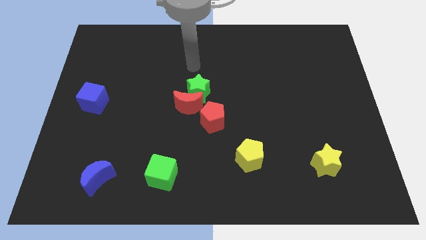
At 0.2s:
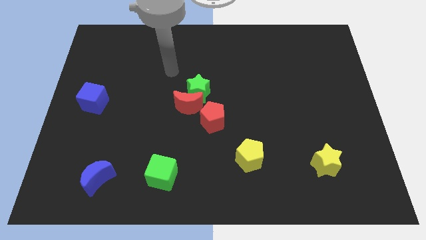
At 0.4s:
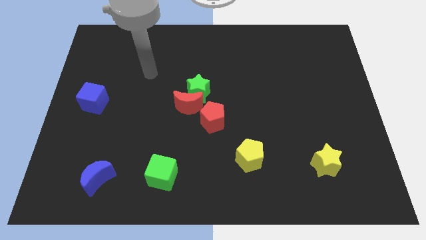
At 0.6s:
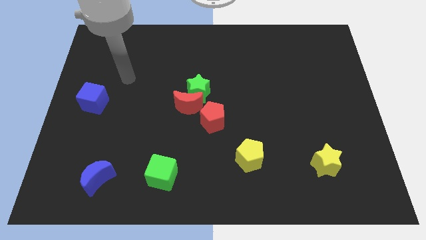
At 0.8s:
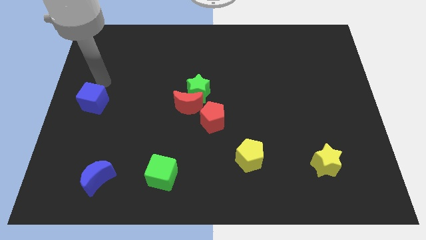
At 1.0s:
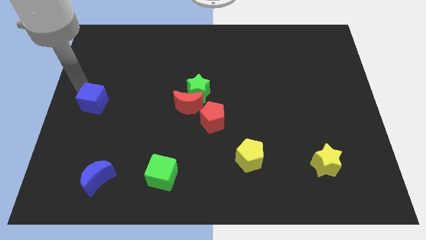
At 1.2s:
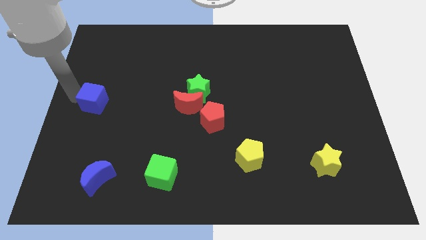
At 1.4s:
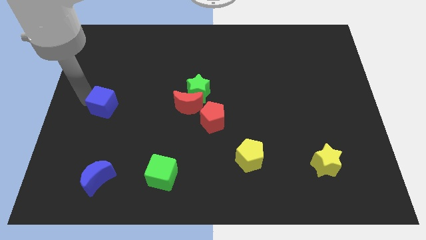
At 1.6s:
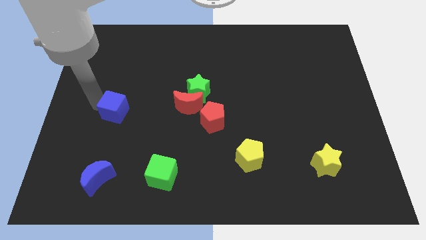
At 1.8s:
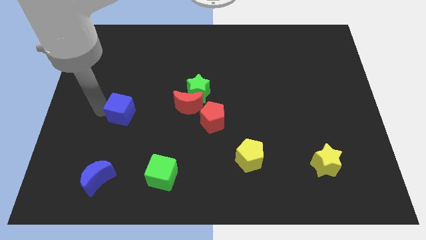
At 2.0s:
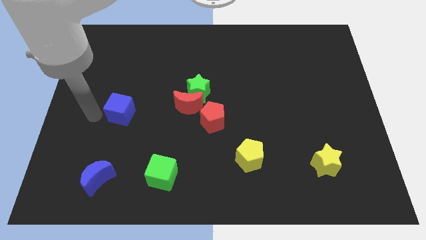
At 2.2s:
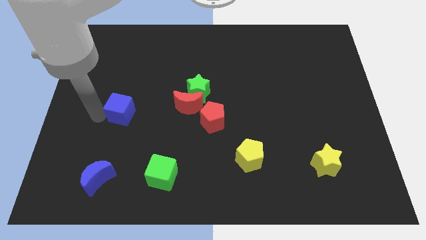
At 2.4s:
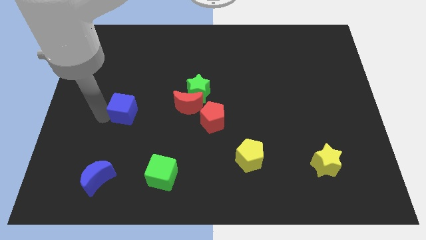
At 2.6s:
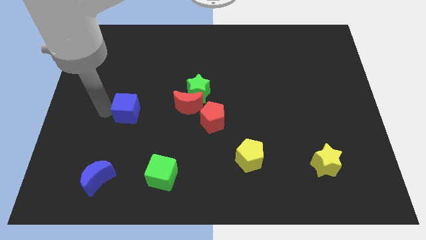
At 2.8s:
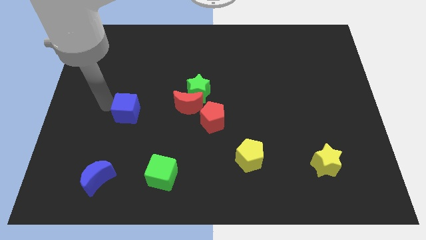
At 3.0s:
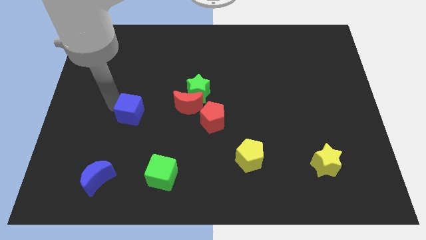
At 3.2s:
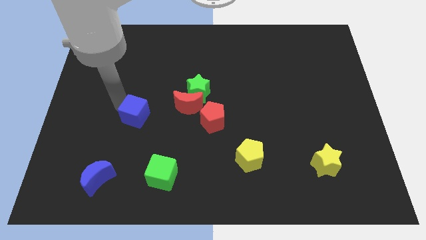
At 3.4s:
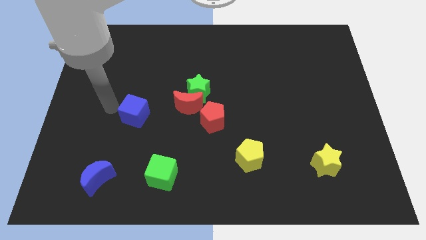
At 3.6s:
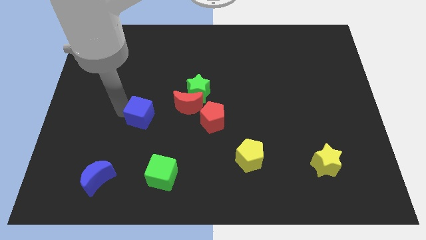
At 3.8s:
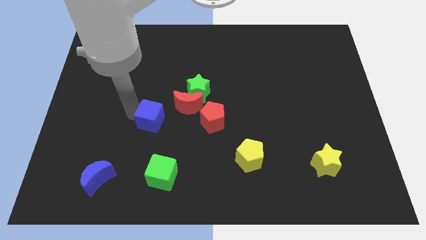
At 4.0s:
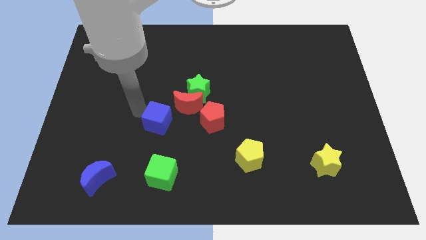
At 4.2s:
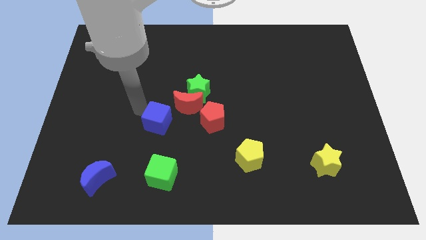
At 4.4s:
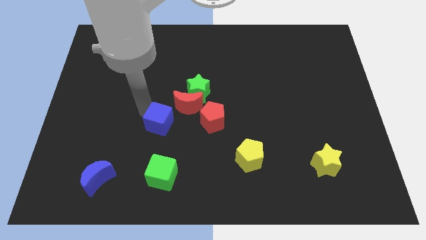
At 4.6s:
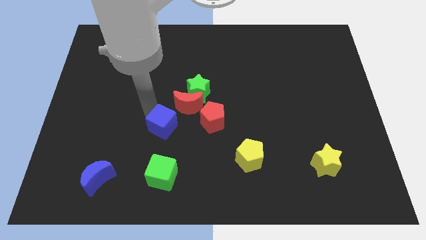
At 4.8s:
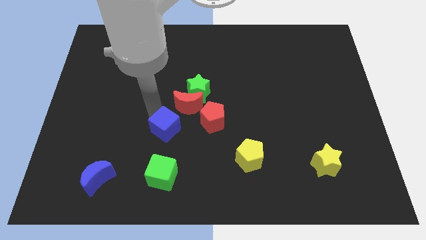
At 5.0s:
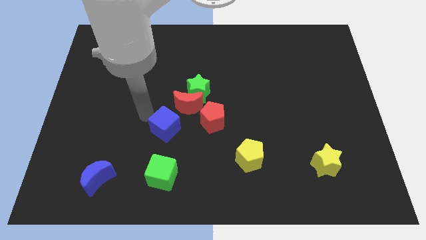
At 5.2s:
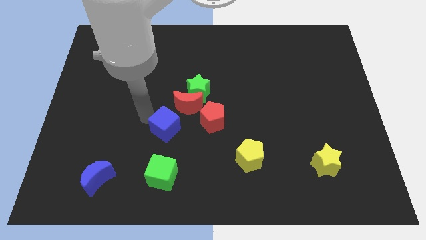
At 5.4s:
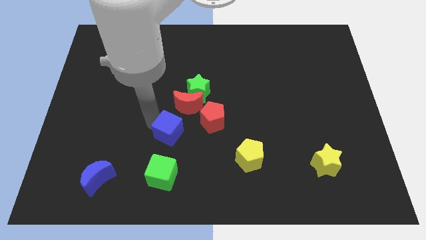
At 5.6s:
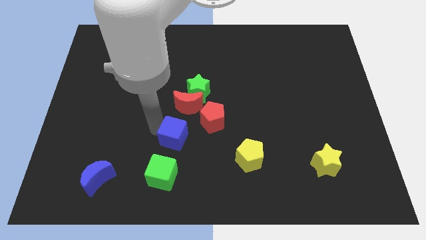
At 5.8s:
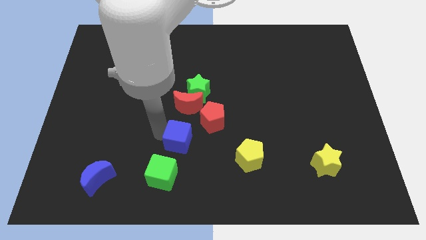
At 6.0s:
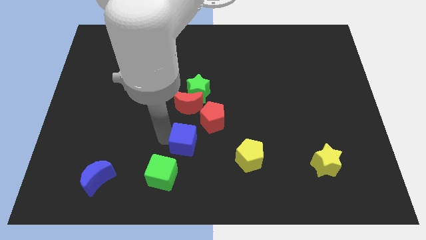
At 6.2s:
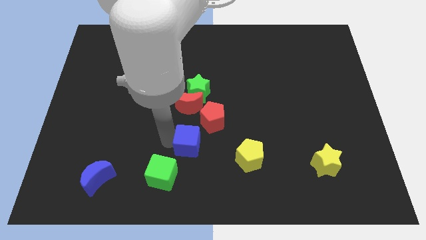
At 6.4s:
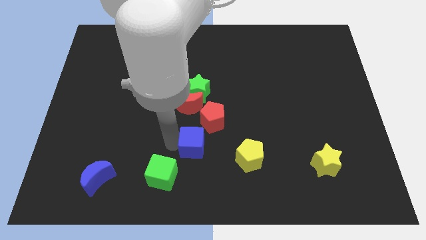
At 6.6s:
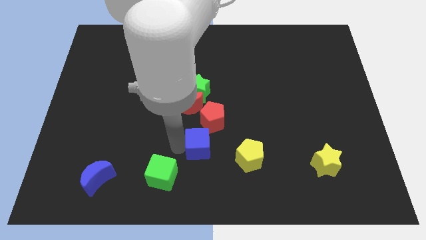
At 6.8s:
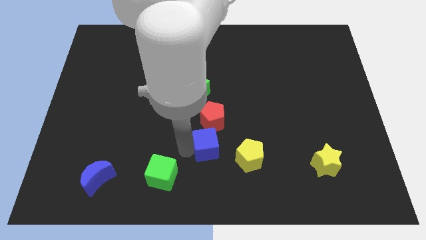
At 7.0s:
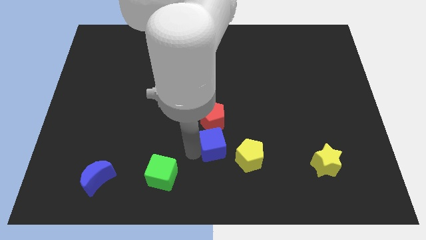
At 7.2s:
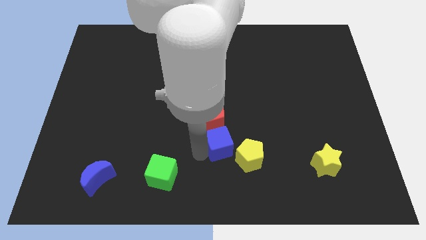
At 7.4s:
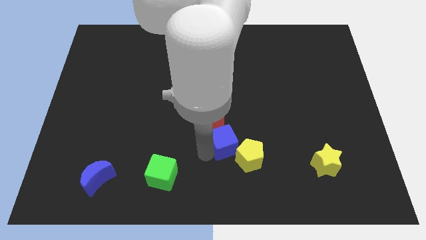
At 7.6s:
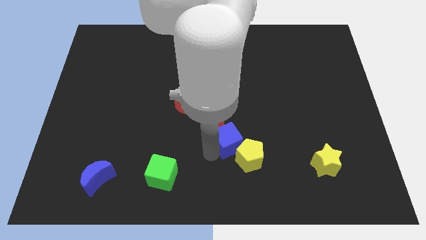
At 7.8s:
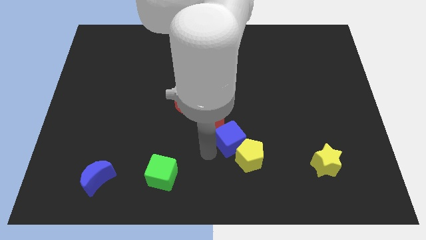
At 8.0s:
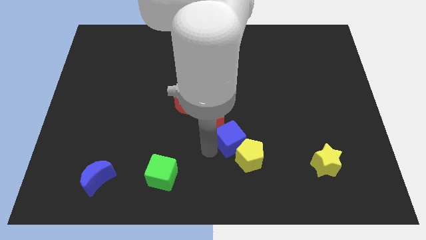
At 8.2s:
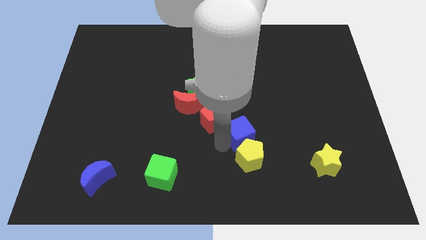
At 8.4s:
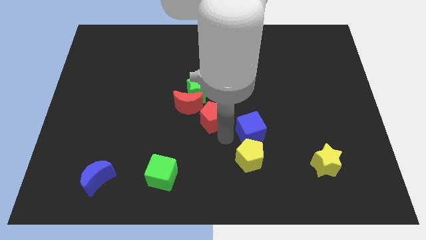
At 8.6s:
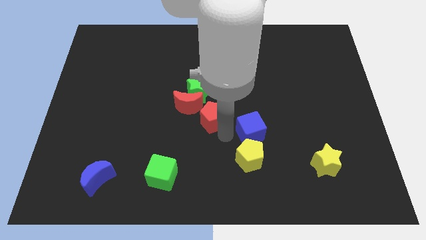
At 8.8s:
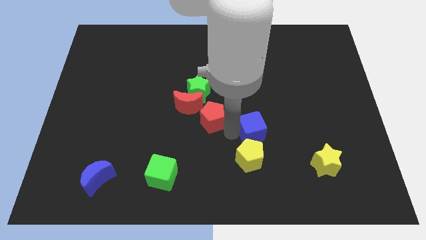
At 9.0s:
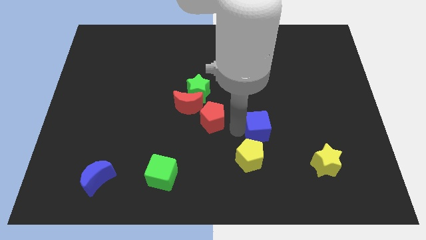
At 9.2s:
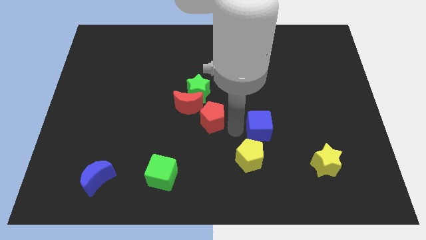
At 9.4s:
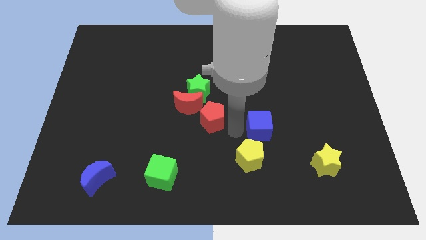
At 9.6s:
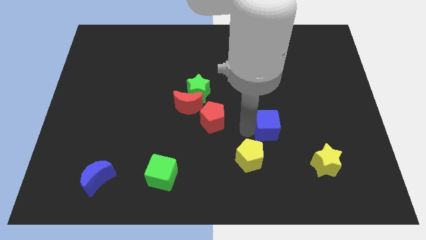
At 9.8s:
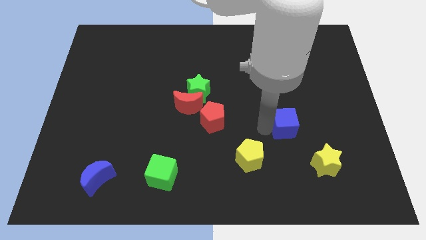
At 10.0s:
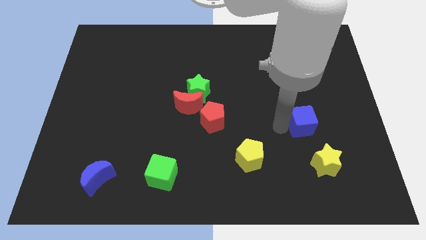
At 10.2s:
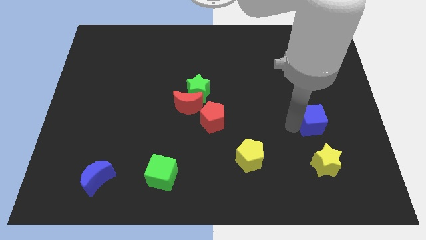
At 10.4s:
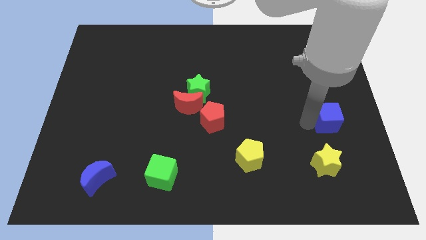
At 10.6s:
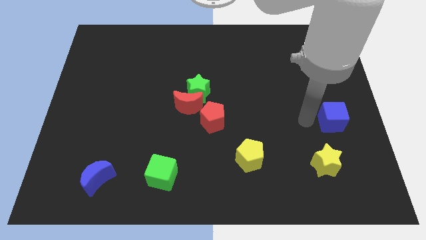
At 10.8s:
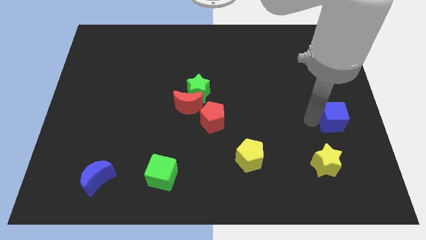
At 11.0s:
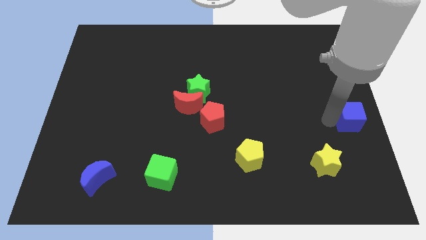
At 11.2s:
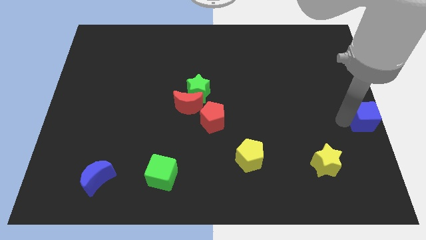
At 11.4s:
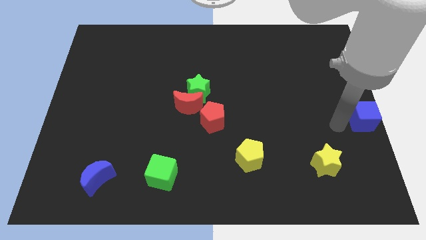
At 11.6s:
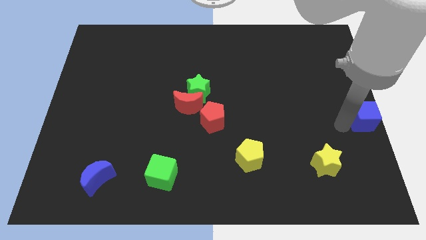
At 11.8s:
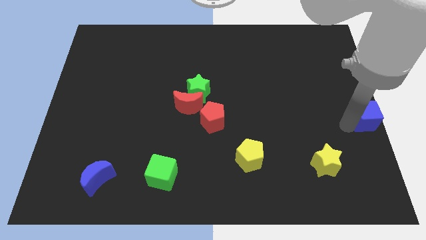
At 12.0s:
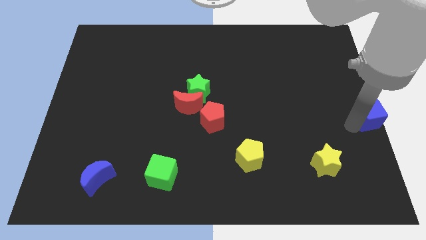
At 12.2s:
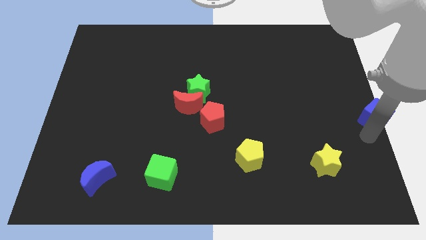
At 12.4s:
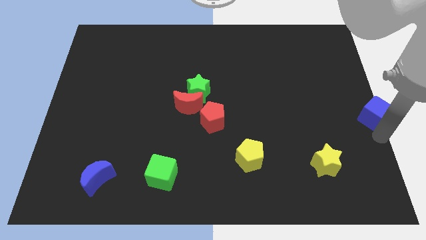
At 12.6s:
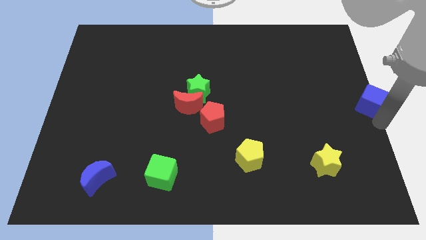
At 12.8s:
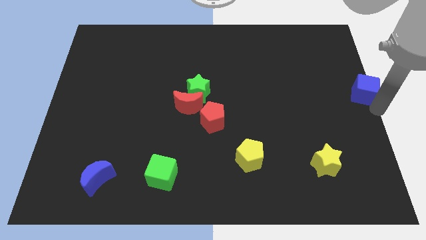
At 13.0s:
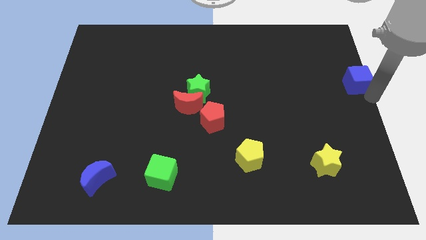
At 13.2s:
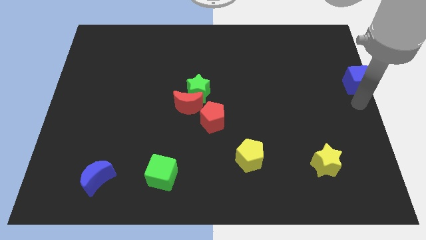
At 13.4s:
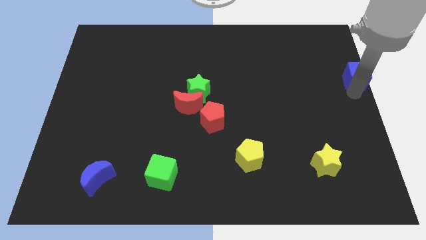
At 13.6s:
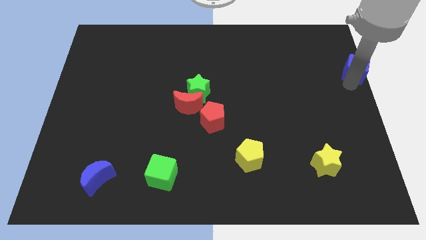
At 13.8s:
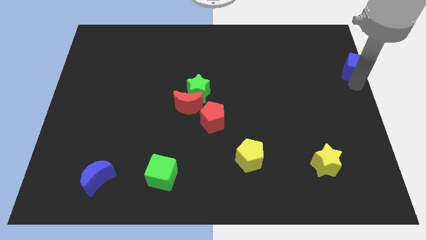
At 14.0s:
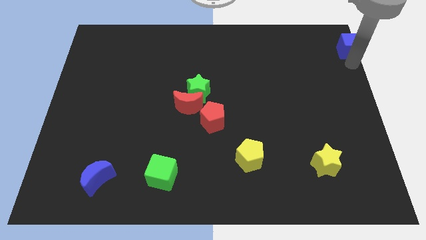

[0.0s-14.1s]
put the blue cube to the top right
